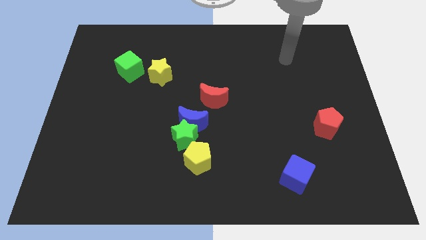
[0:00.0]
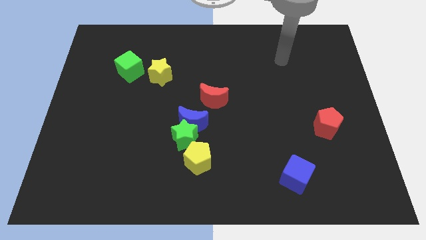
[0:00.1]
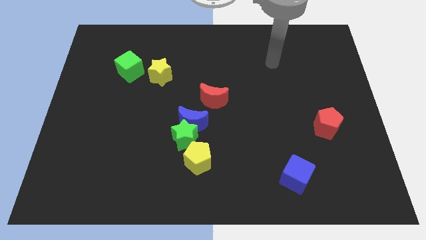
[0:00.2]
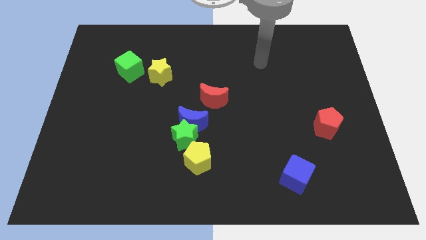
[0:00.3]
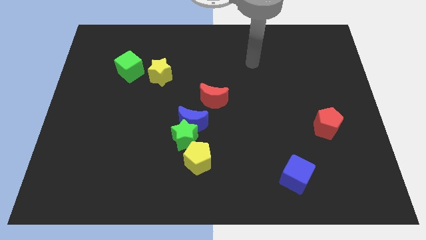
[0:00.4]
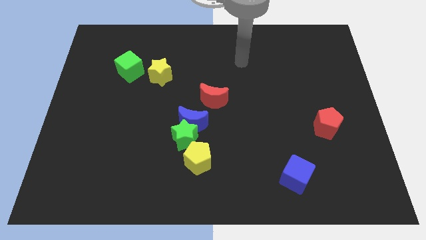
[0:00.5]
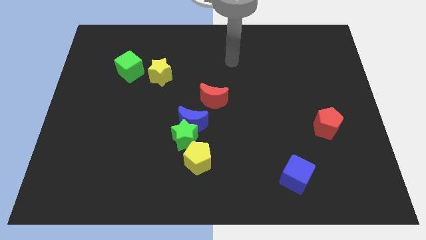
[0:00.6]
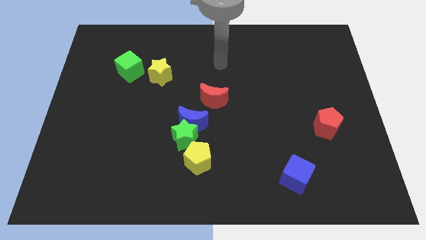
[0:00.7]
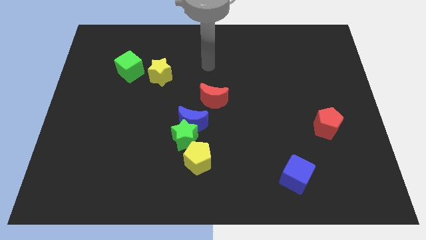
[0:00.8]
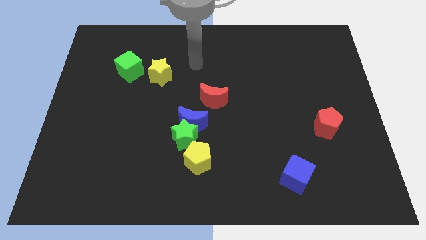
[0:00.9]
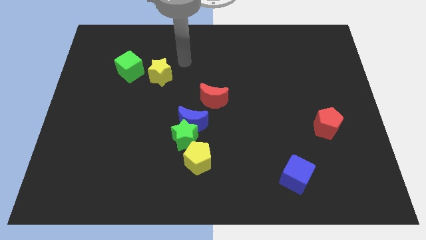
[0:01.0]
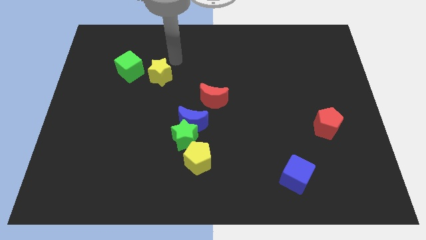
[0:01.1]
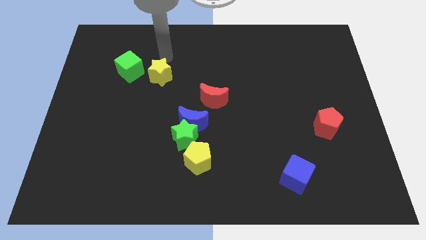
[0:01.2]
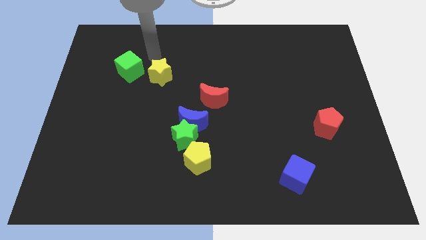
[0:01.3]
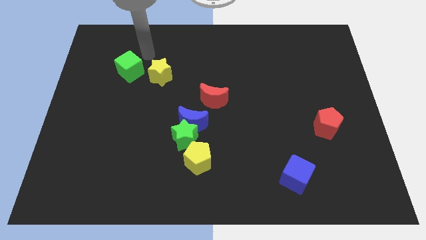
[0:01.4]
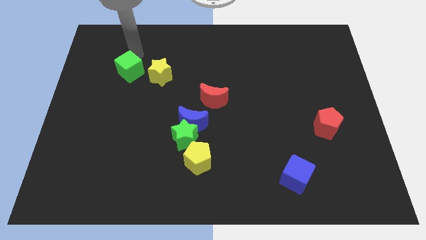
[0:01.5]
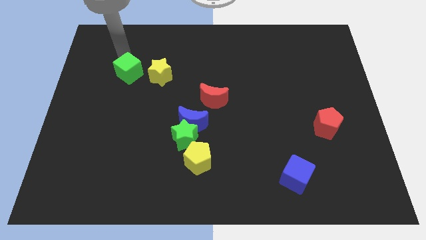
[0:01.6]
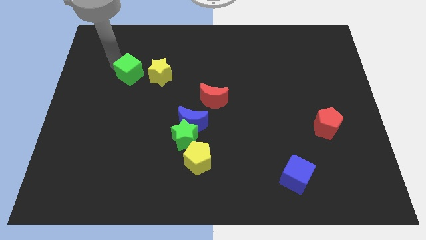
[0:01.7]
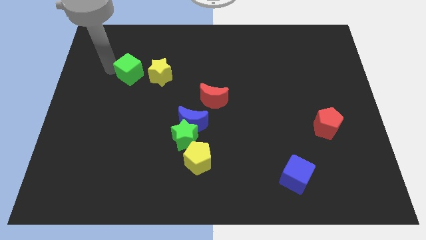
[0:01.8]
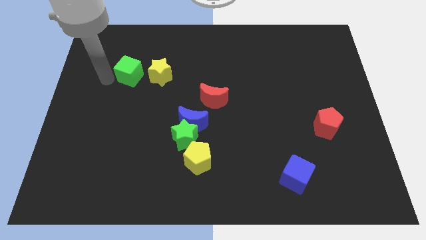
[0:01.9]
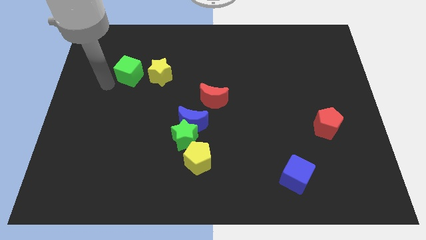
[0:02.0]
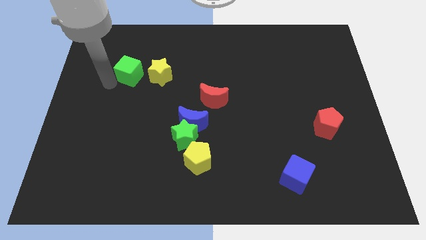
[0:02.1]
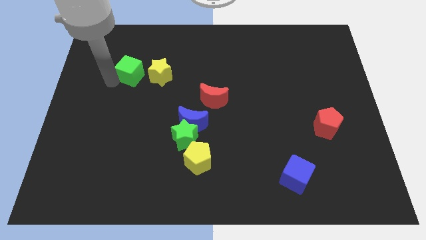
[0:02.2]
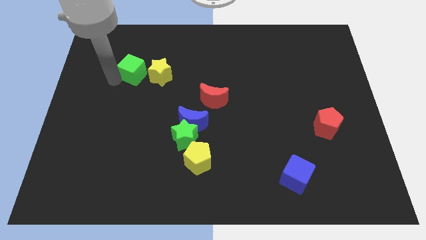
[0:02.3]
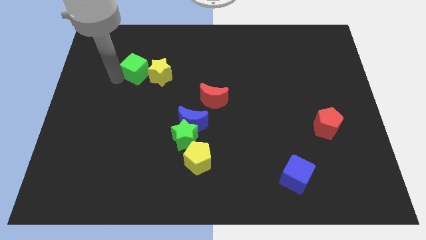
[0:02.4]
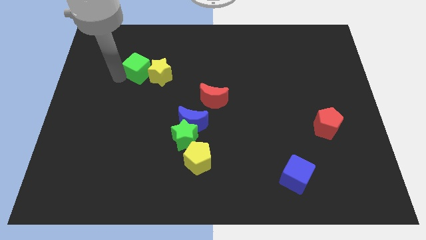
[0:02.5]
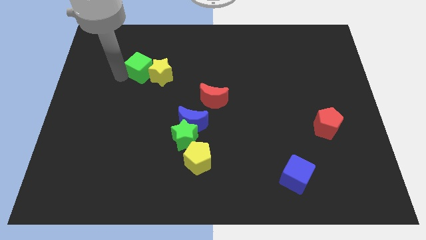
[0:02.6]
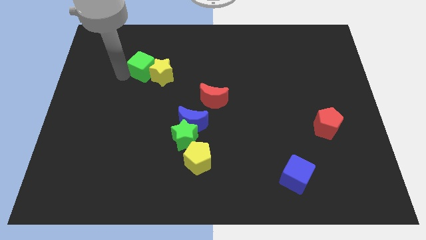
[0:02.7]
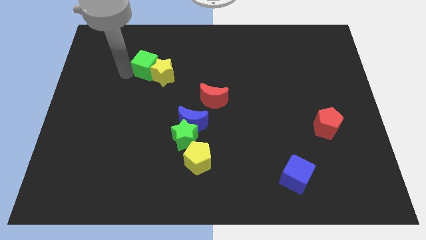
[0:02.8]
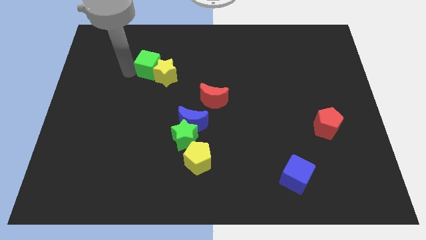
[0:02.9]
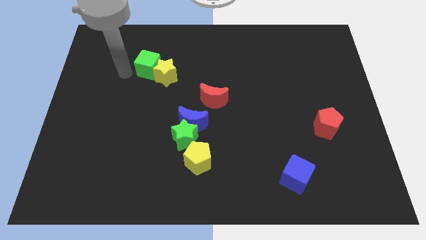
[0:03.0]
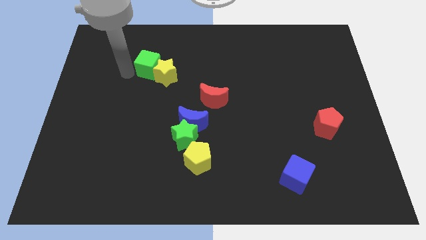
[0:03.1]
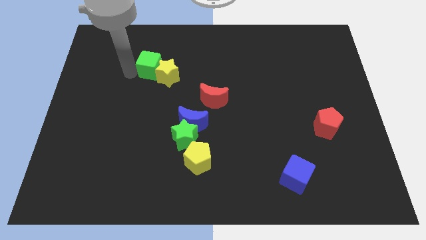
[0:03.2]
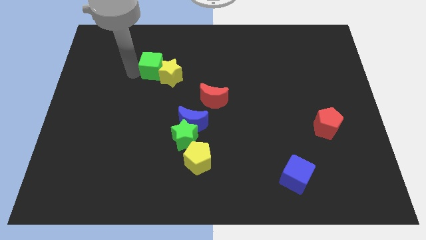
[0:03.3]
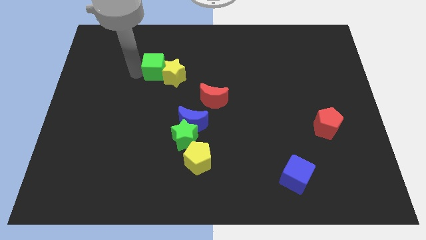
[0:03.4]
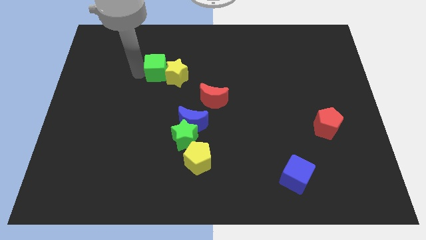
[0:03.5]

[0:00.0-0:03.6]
slide the green cube somewhat right

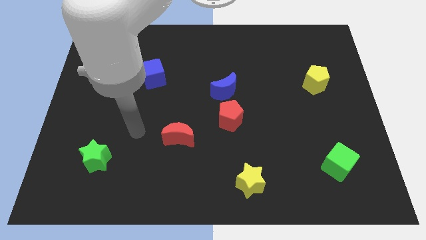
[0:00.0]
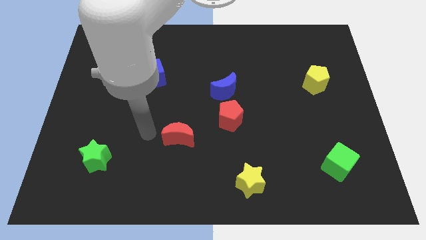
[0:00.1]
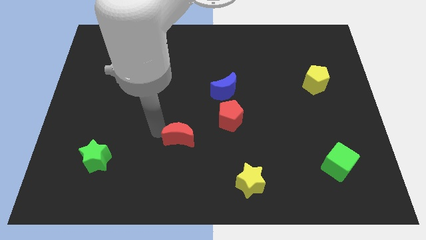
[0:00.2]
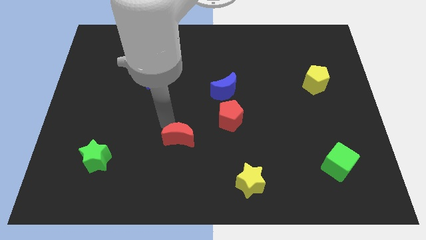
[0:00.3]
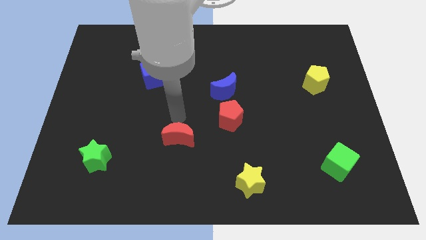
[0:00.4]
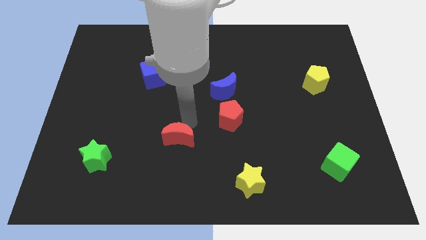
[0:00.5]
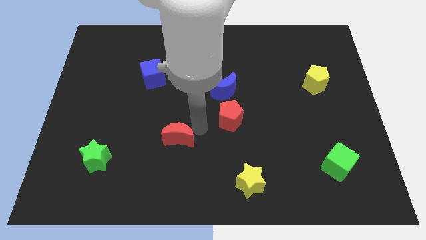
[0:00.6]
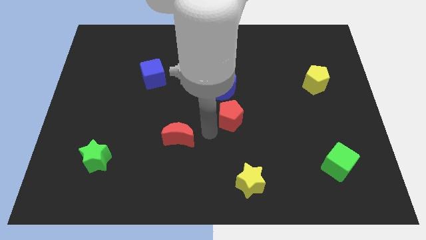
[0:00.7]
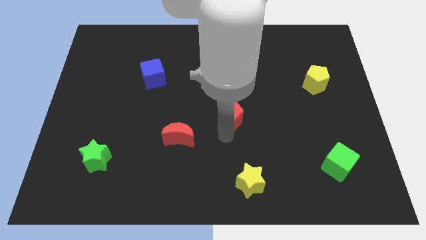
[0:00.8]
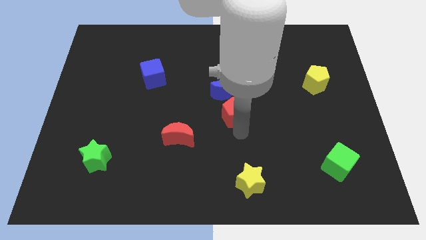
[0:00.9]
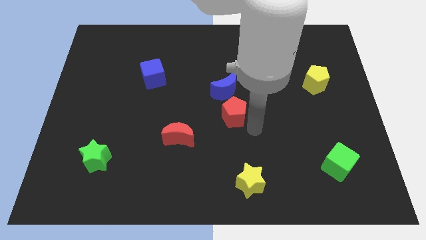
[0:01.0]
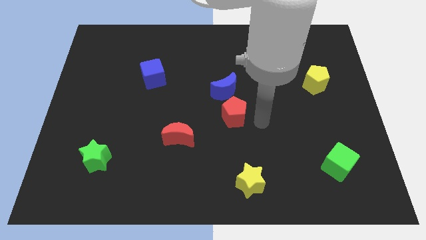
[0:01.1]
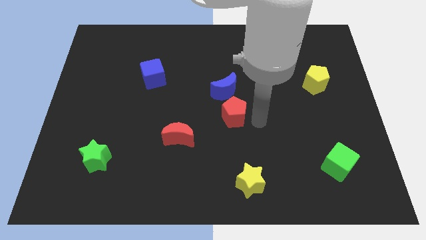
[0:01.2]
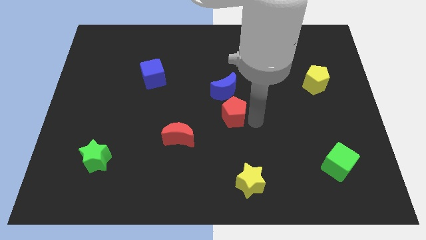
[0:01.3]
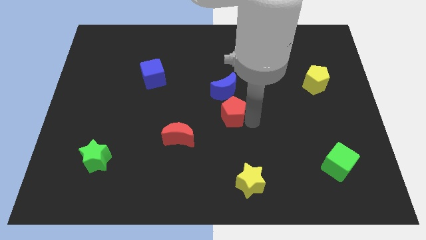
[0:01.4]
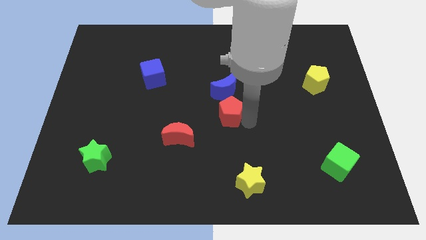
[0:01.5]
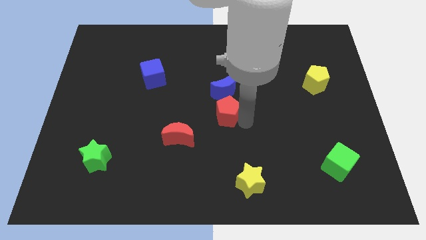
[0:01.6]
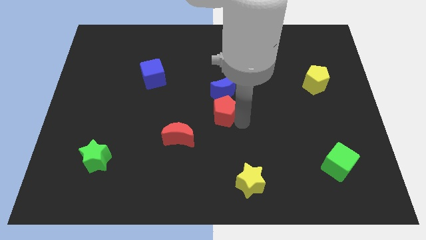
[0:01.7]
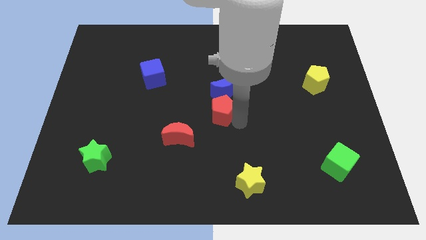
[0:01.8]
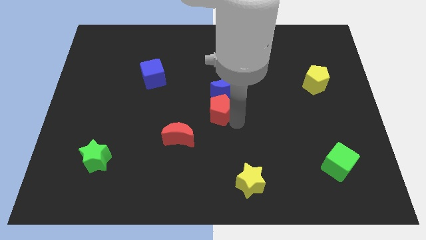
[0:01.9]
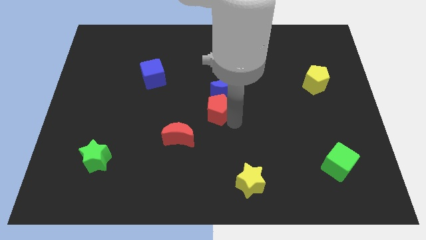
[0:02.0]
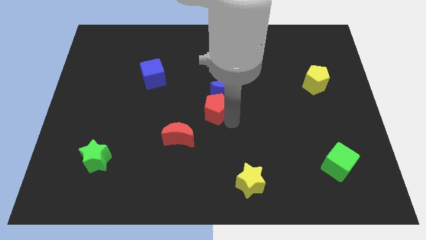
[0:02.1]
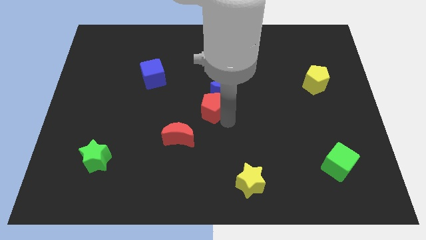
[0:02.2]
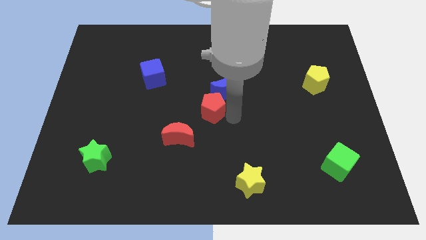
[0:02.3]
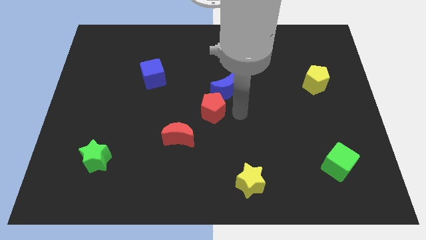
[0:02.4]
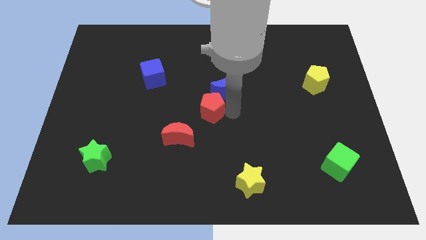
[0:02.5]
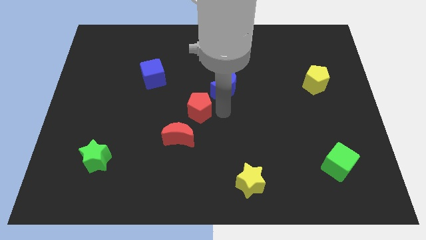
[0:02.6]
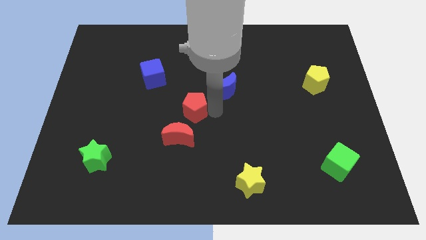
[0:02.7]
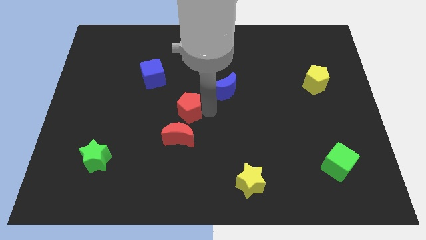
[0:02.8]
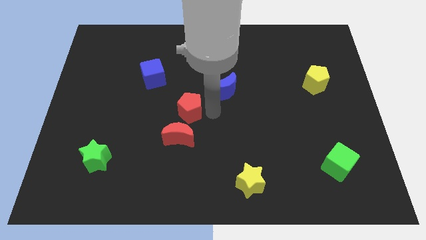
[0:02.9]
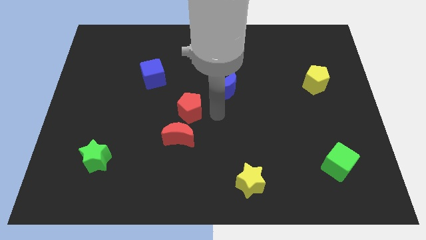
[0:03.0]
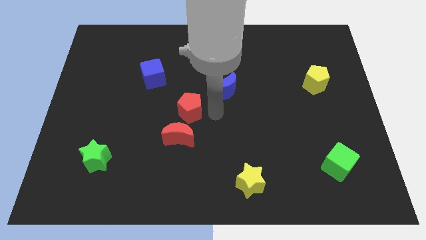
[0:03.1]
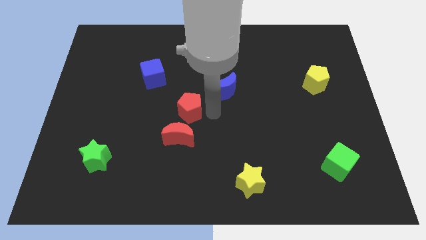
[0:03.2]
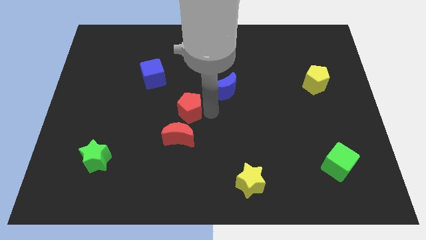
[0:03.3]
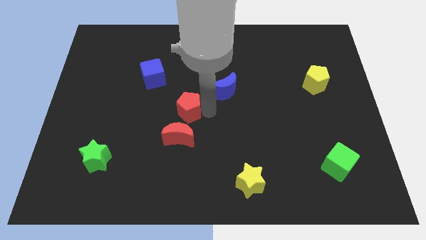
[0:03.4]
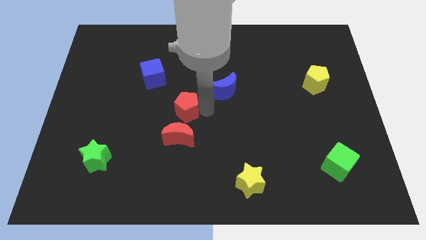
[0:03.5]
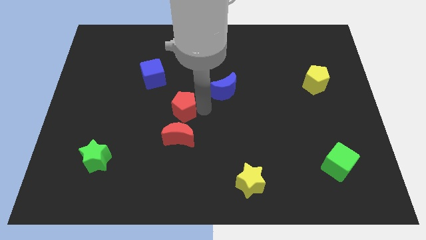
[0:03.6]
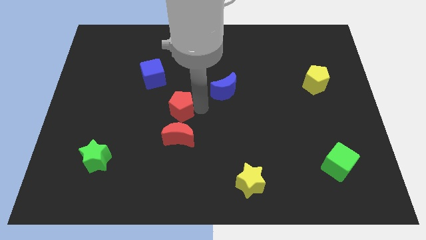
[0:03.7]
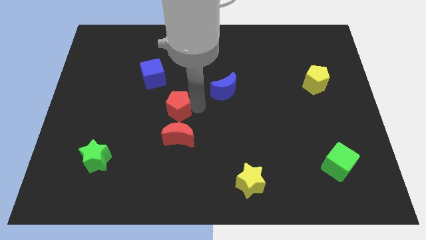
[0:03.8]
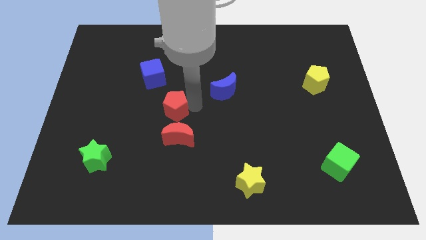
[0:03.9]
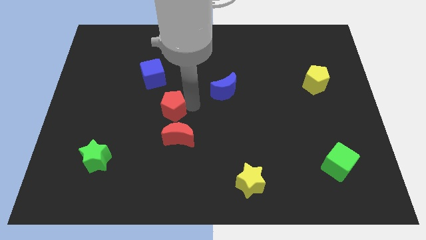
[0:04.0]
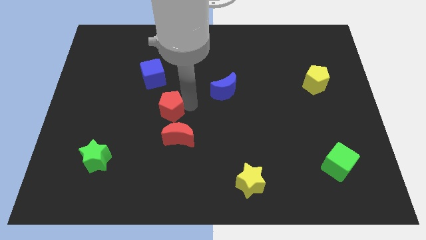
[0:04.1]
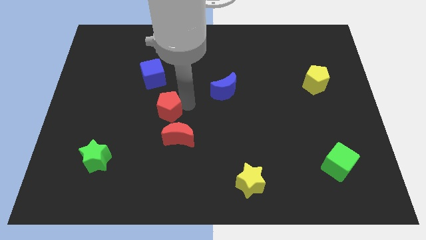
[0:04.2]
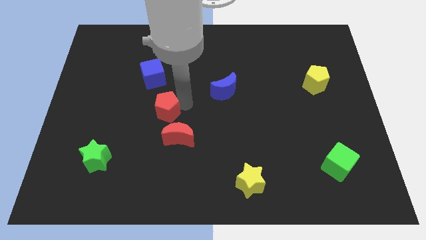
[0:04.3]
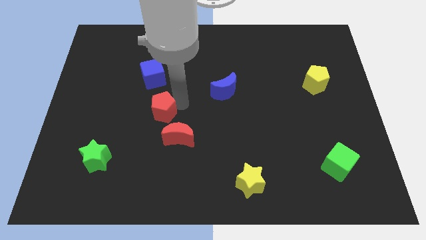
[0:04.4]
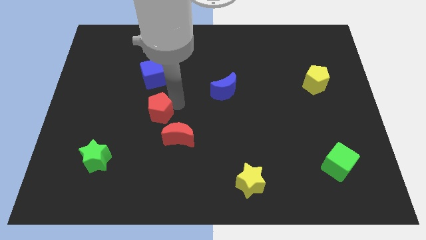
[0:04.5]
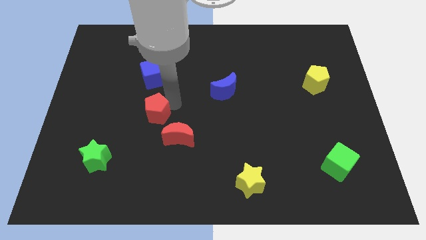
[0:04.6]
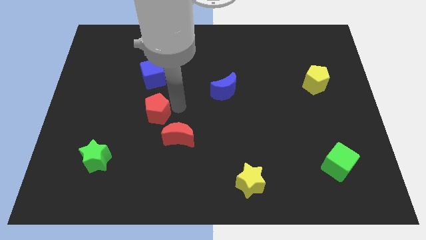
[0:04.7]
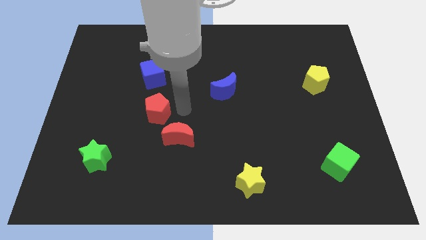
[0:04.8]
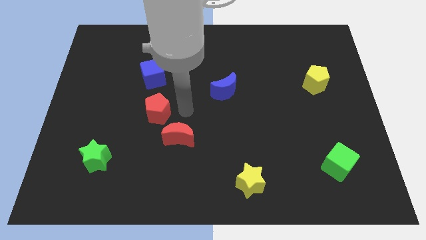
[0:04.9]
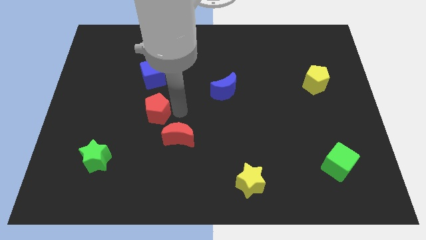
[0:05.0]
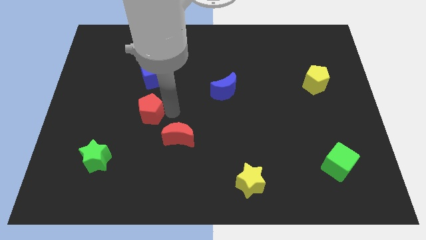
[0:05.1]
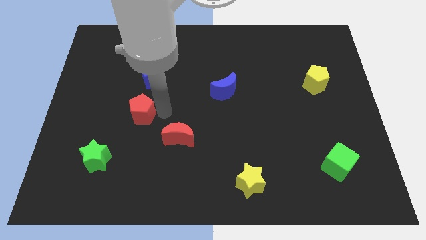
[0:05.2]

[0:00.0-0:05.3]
push the red pentagon left
